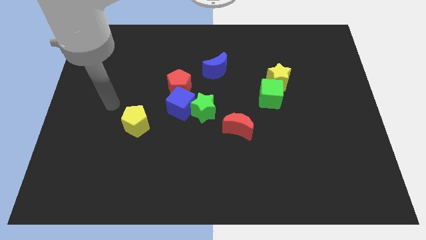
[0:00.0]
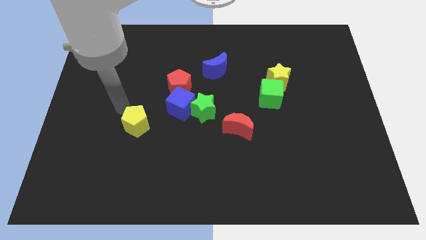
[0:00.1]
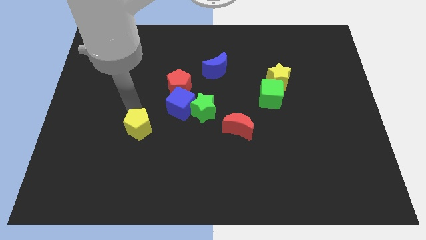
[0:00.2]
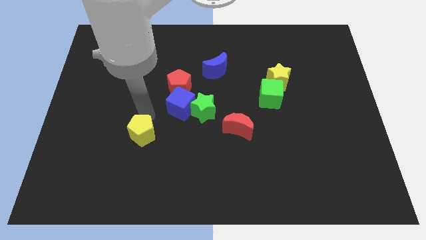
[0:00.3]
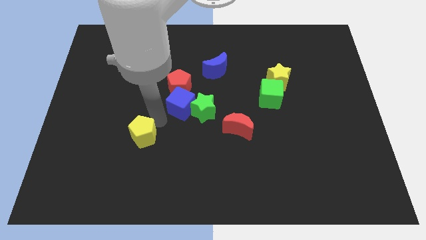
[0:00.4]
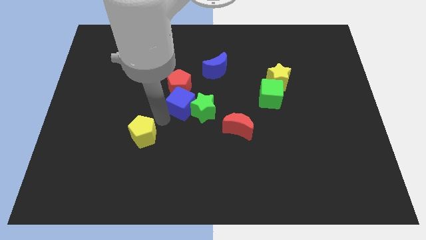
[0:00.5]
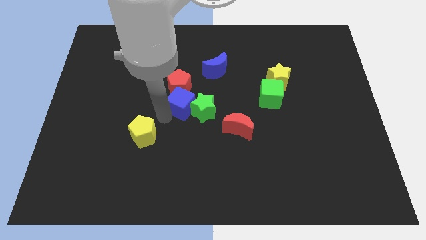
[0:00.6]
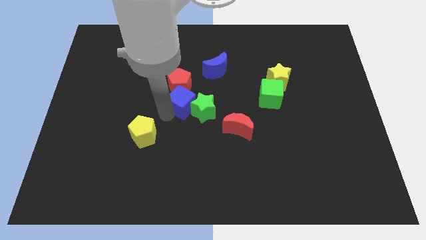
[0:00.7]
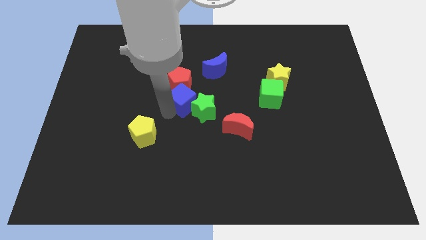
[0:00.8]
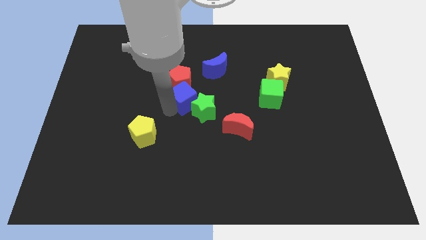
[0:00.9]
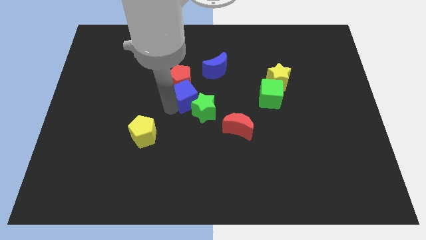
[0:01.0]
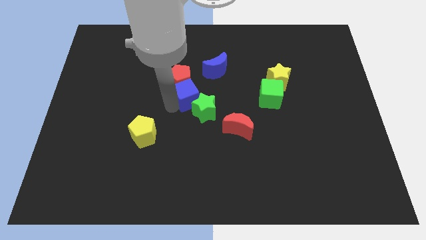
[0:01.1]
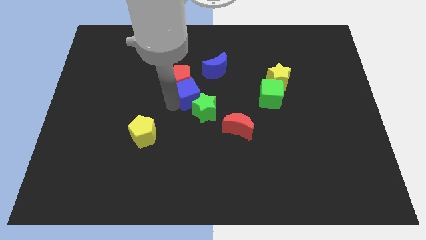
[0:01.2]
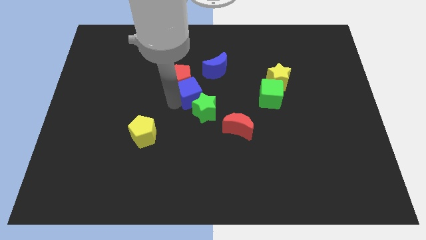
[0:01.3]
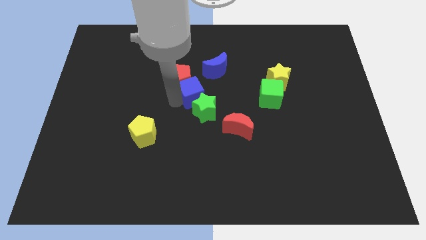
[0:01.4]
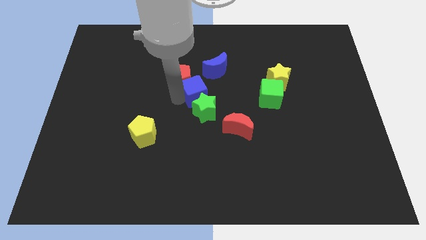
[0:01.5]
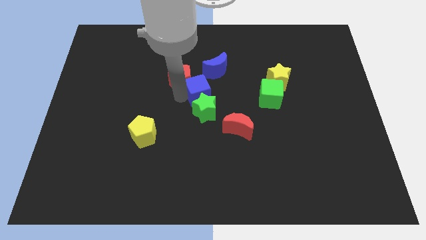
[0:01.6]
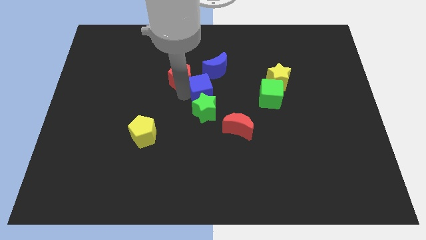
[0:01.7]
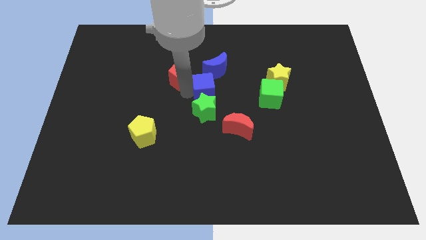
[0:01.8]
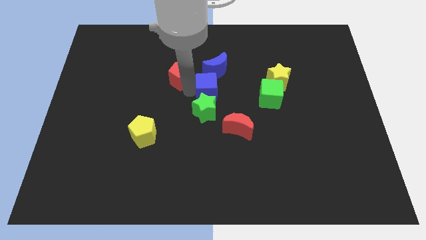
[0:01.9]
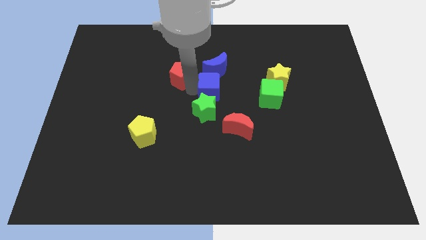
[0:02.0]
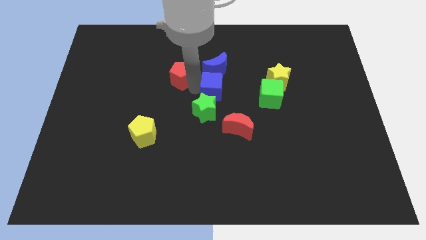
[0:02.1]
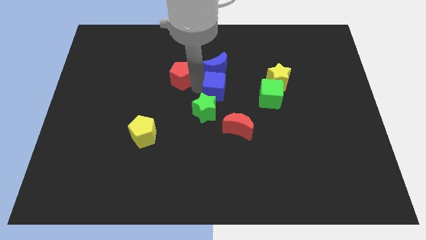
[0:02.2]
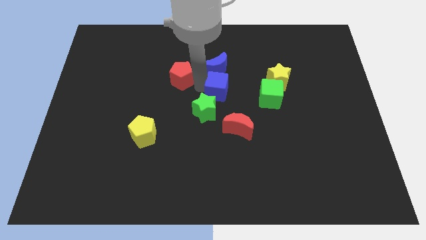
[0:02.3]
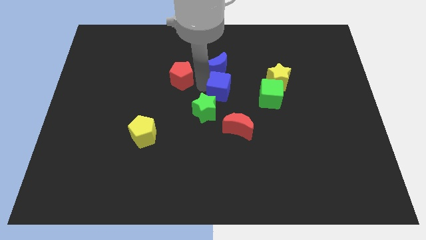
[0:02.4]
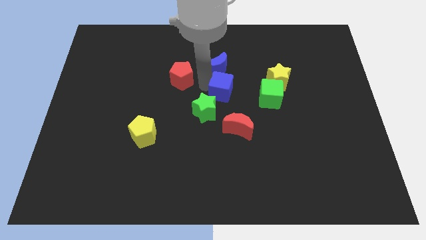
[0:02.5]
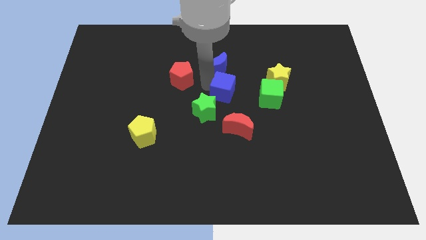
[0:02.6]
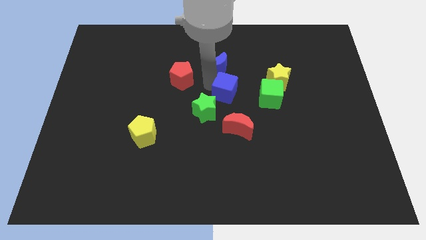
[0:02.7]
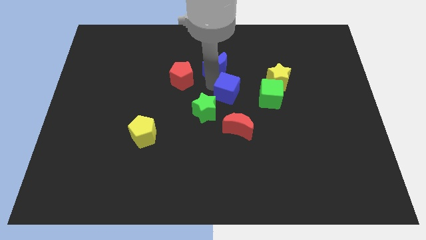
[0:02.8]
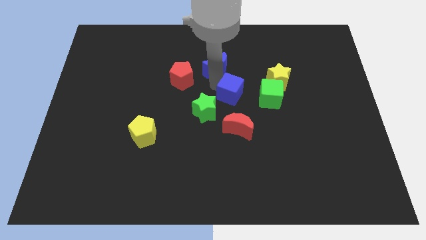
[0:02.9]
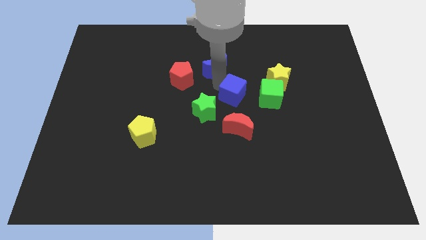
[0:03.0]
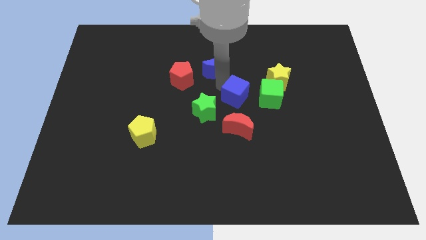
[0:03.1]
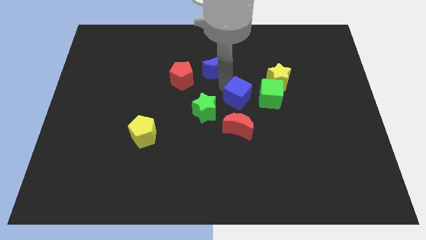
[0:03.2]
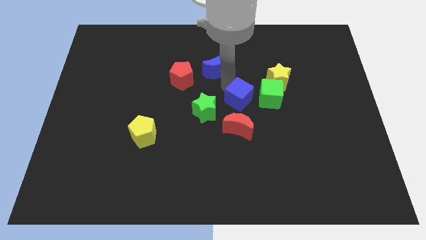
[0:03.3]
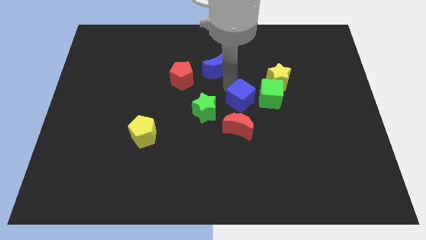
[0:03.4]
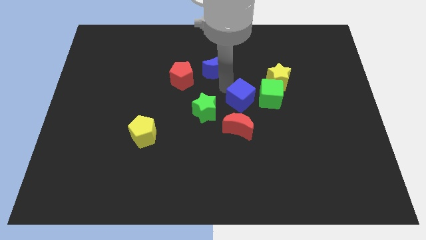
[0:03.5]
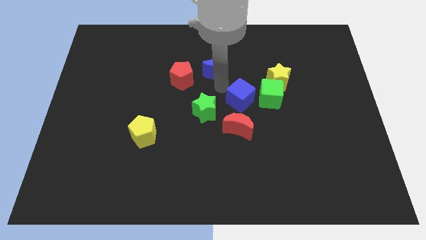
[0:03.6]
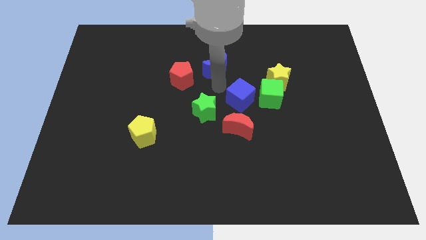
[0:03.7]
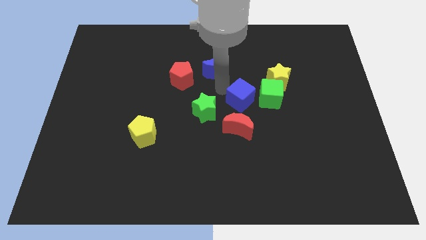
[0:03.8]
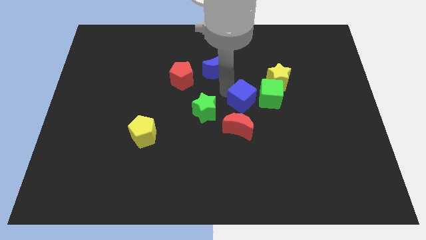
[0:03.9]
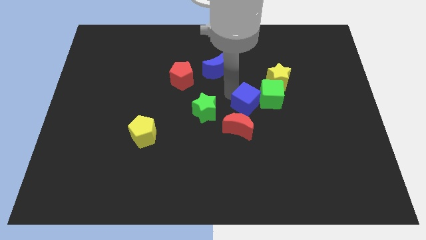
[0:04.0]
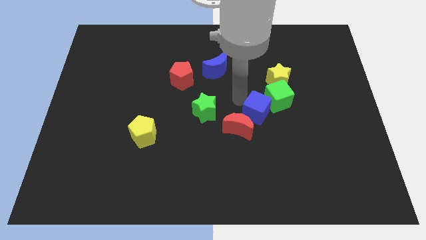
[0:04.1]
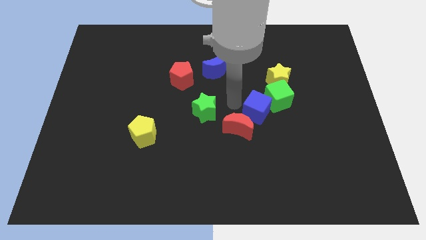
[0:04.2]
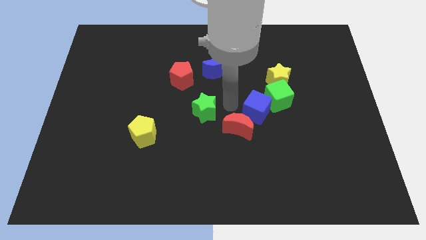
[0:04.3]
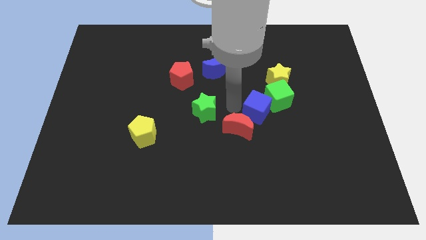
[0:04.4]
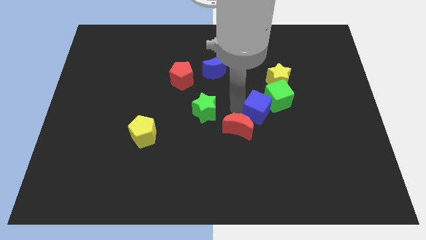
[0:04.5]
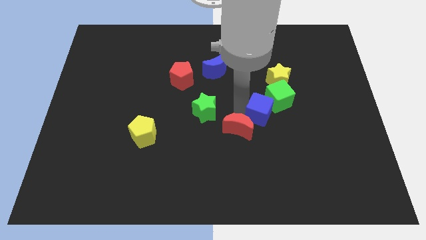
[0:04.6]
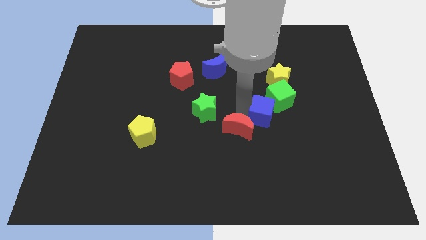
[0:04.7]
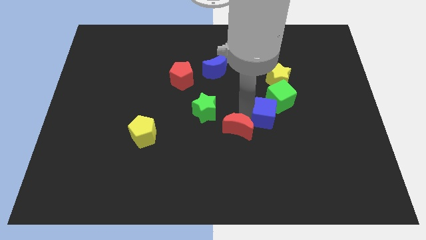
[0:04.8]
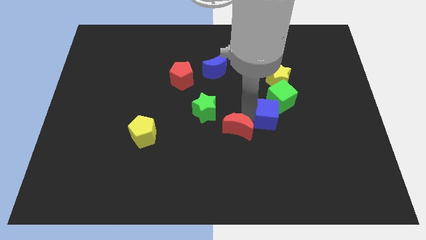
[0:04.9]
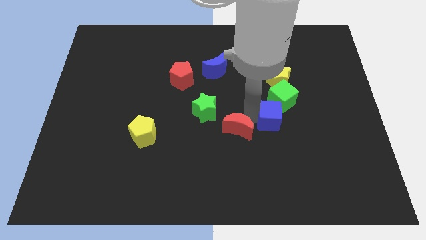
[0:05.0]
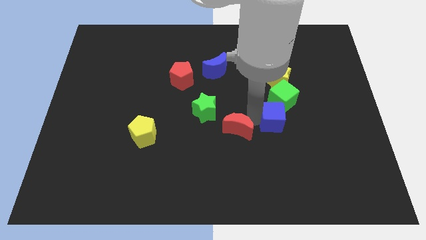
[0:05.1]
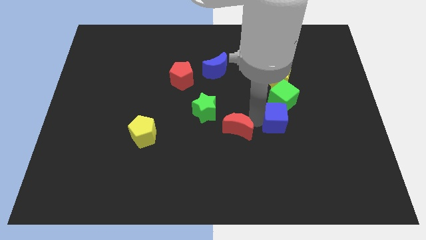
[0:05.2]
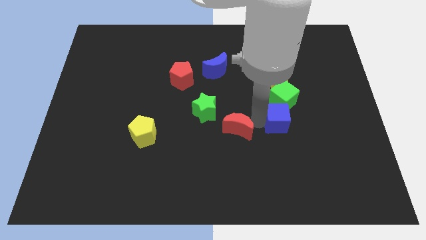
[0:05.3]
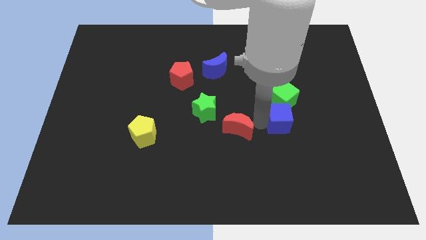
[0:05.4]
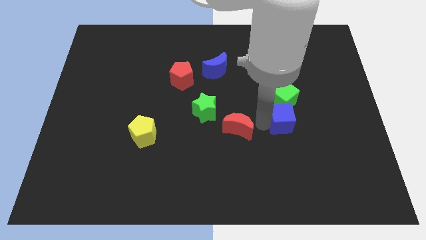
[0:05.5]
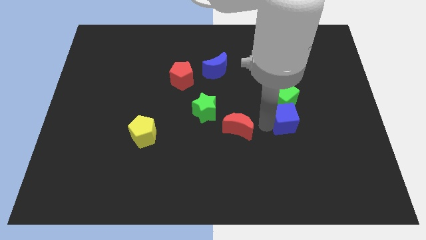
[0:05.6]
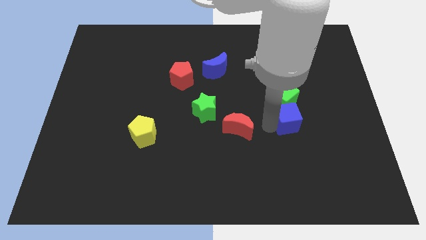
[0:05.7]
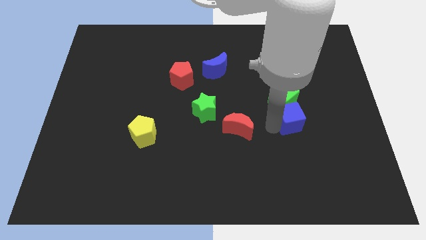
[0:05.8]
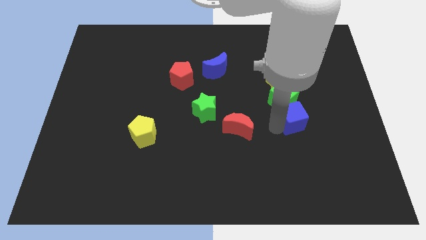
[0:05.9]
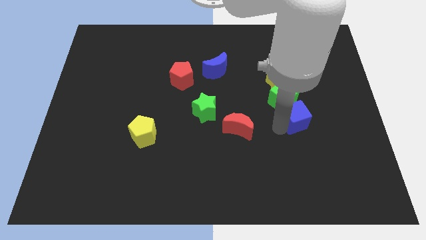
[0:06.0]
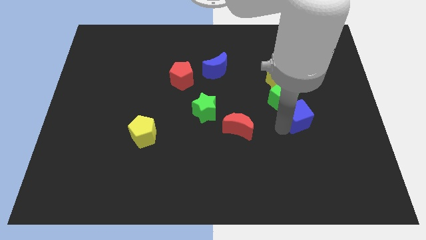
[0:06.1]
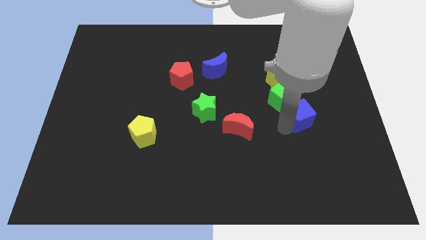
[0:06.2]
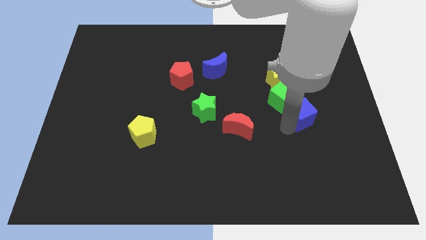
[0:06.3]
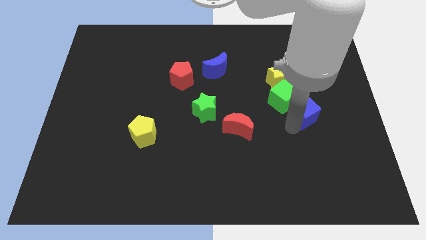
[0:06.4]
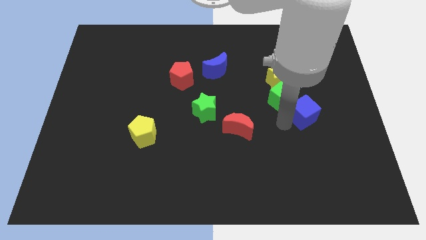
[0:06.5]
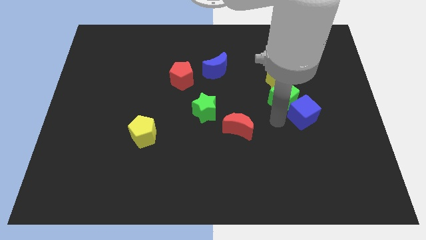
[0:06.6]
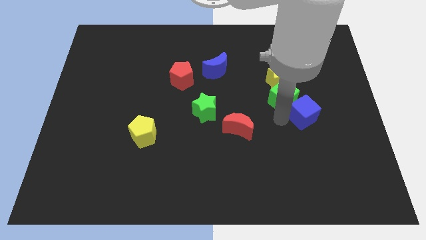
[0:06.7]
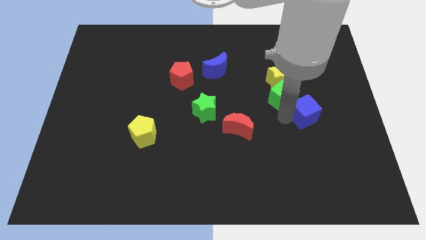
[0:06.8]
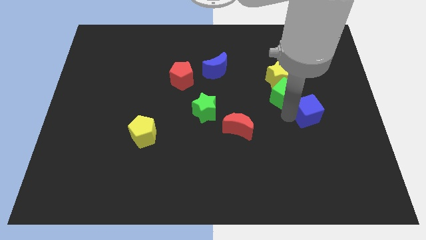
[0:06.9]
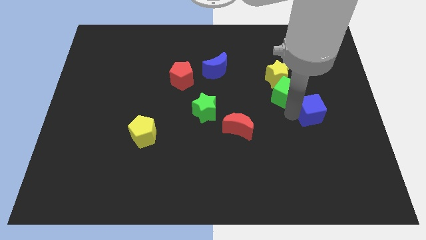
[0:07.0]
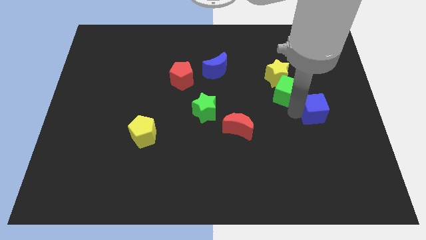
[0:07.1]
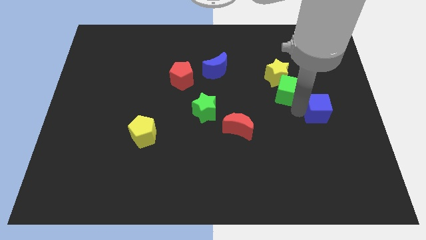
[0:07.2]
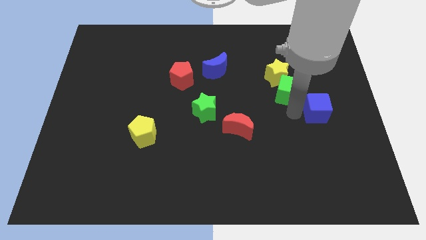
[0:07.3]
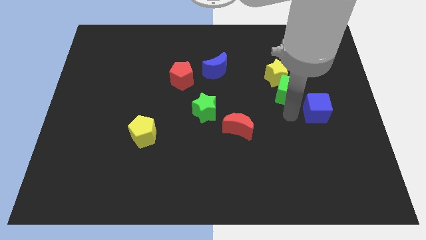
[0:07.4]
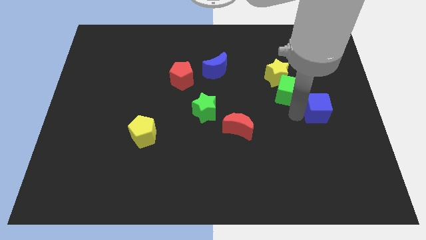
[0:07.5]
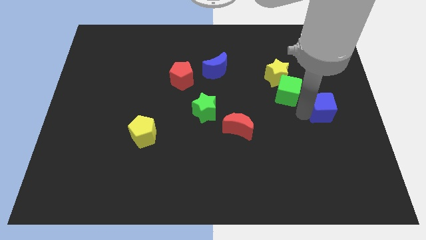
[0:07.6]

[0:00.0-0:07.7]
put the blue cube to the right side of the board

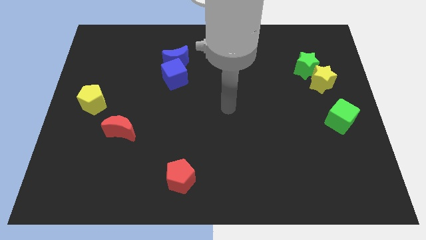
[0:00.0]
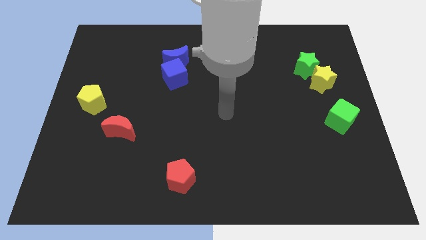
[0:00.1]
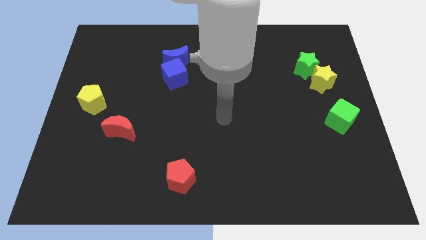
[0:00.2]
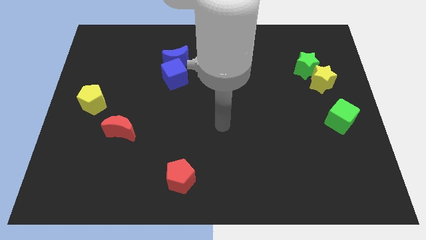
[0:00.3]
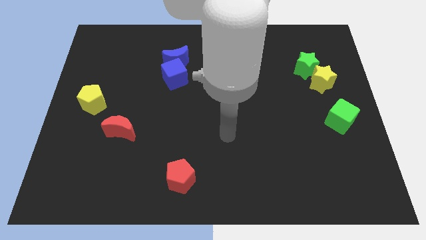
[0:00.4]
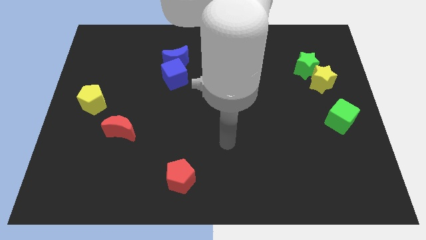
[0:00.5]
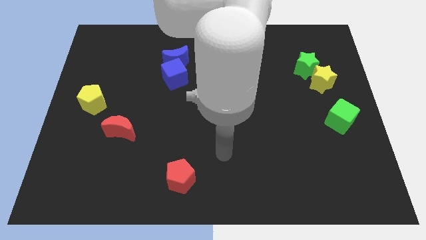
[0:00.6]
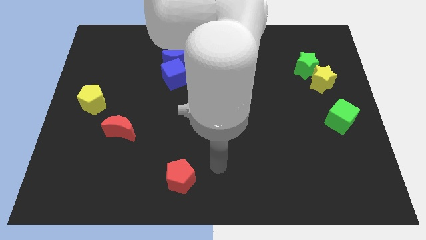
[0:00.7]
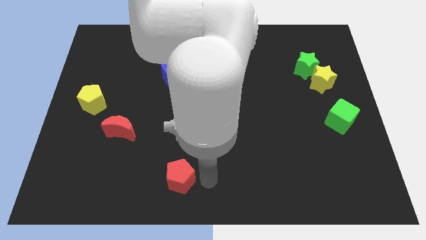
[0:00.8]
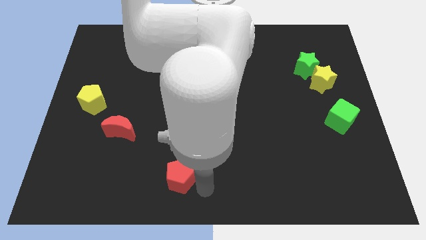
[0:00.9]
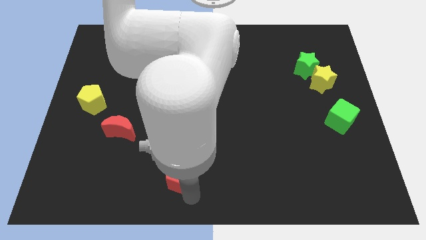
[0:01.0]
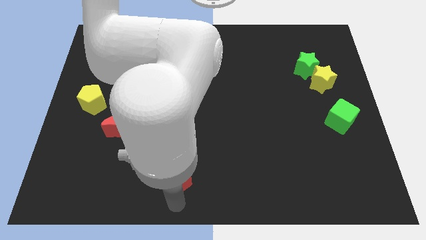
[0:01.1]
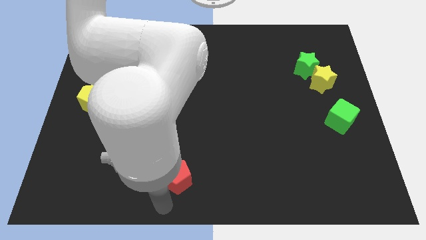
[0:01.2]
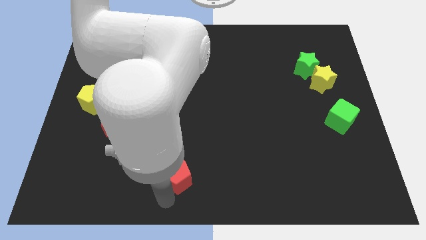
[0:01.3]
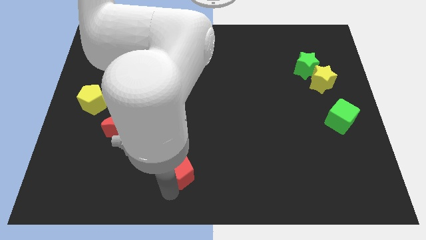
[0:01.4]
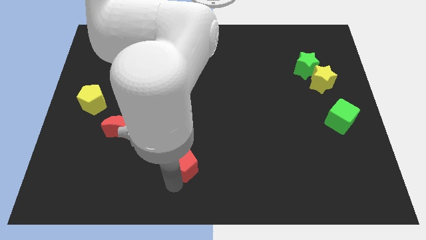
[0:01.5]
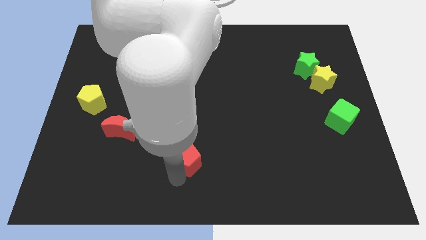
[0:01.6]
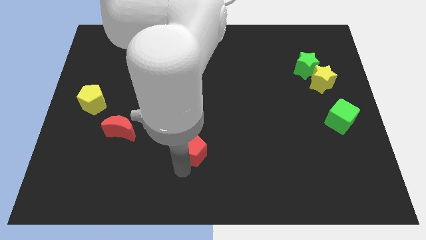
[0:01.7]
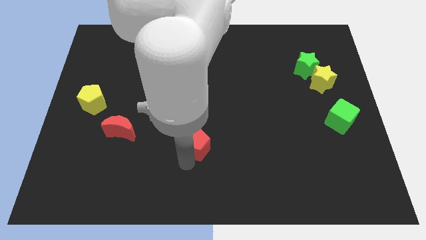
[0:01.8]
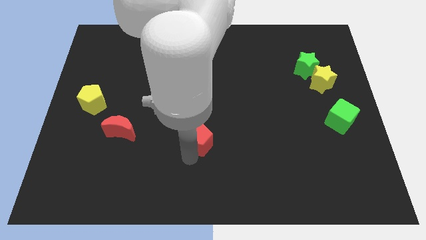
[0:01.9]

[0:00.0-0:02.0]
slide the red pentagon to the middle of the board
